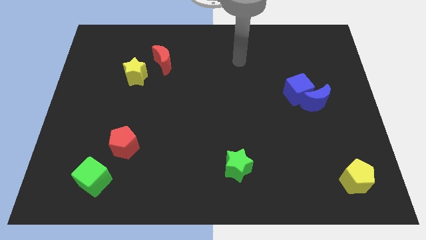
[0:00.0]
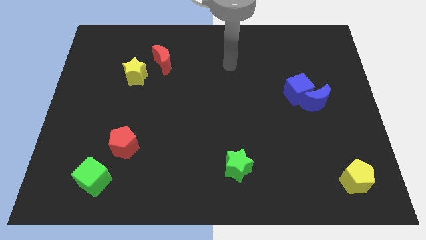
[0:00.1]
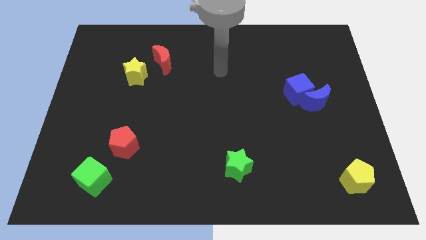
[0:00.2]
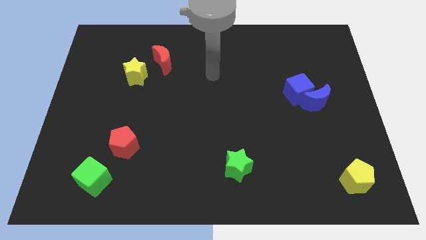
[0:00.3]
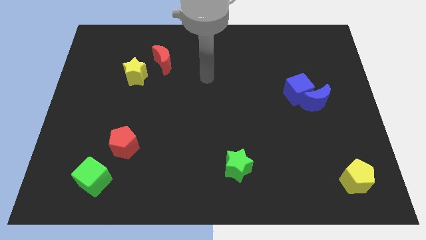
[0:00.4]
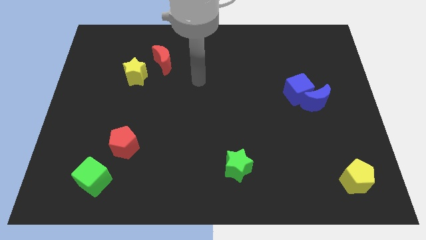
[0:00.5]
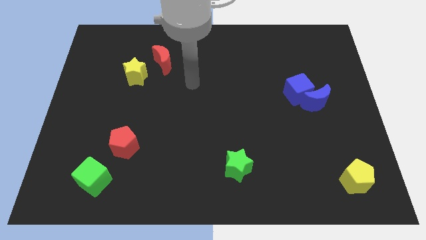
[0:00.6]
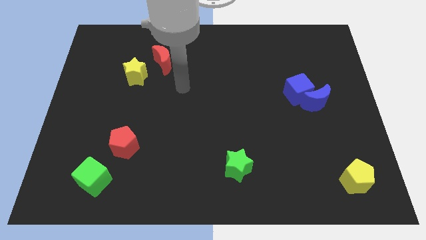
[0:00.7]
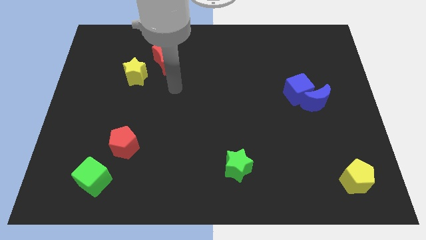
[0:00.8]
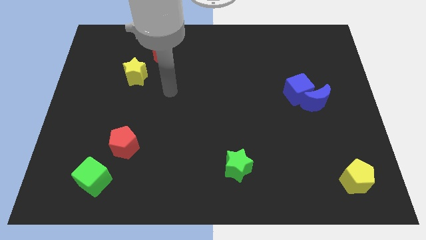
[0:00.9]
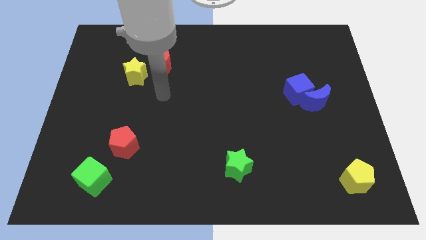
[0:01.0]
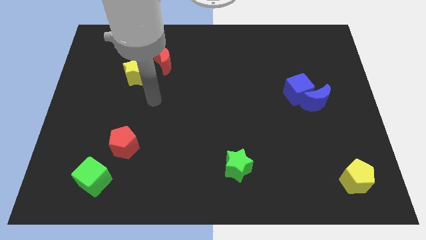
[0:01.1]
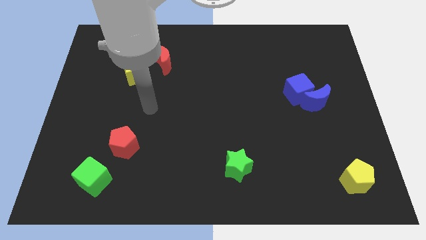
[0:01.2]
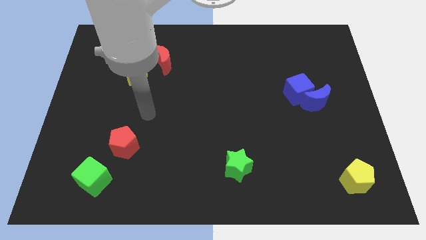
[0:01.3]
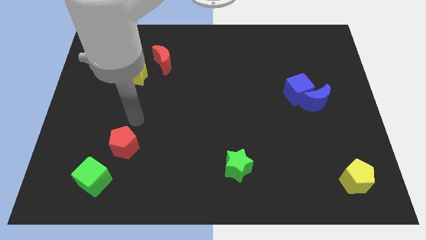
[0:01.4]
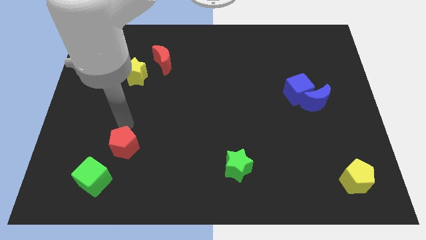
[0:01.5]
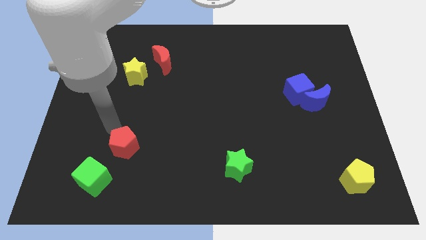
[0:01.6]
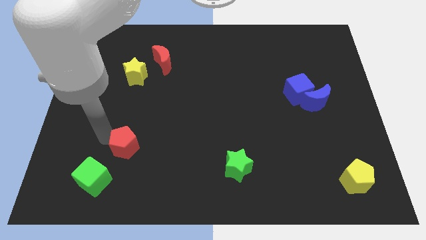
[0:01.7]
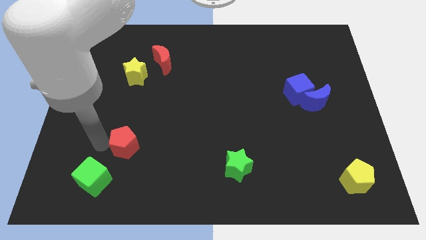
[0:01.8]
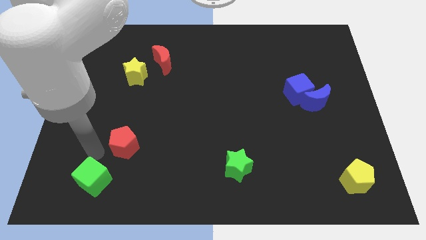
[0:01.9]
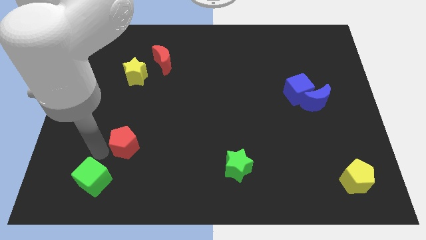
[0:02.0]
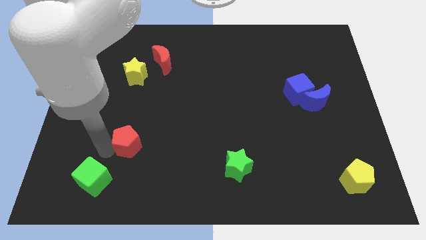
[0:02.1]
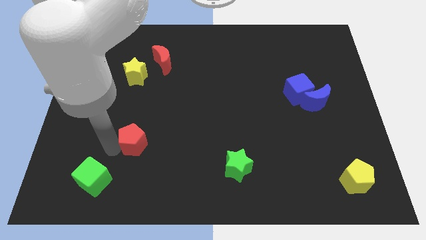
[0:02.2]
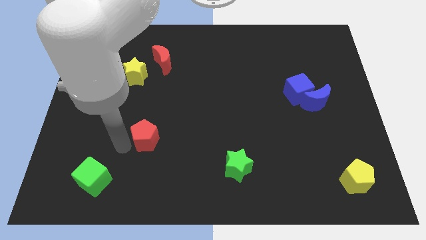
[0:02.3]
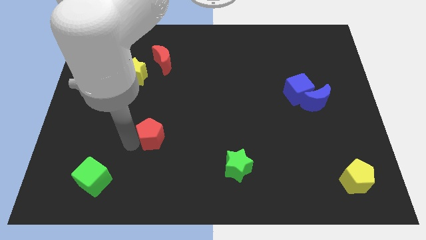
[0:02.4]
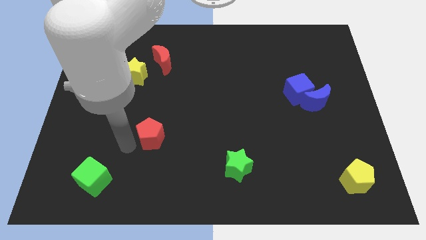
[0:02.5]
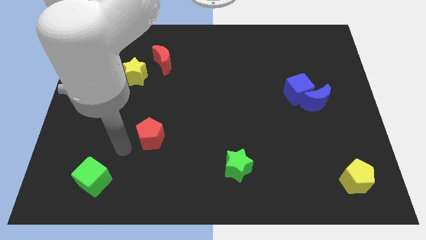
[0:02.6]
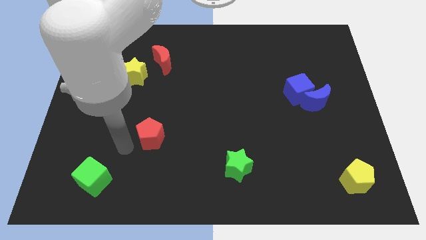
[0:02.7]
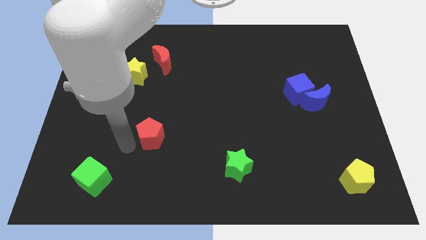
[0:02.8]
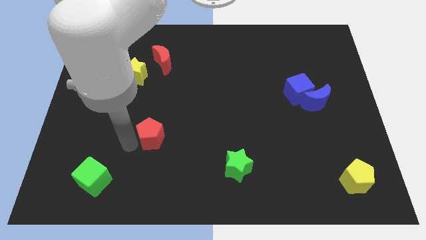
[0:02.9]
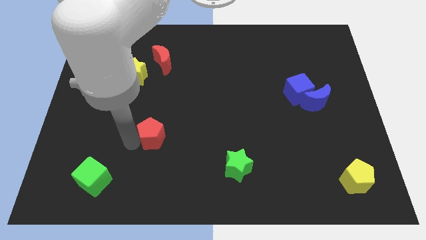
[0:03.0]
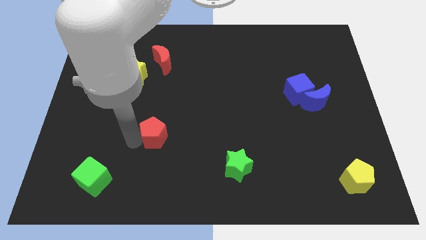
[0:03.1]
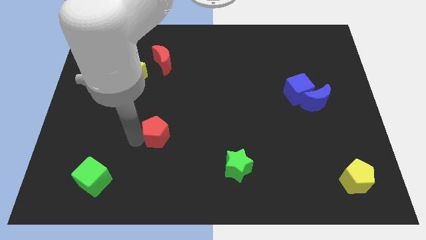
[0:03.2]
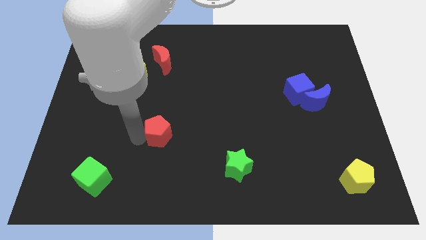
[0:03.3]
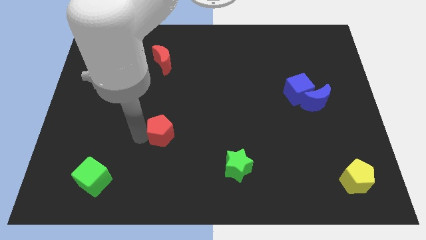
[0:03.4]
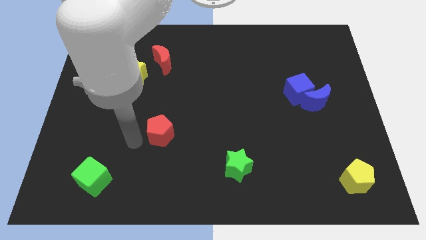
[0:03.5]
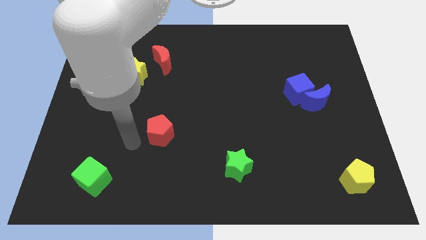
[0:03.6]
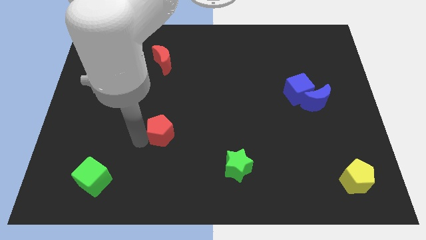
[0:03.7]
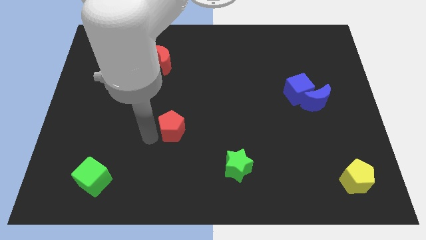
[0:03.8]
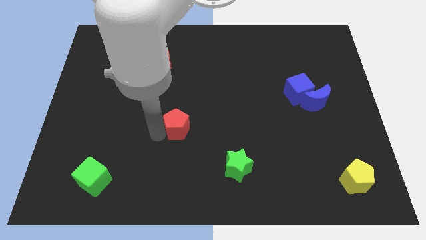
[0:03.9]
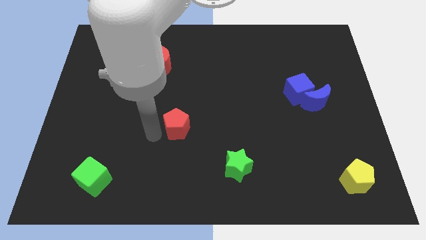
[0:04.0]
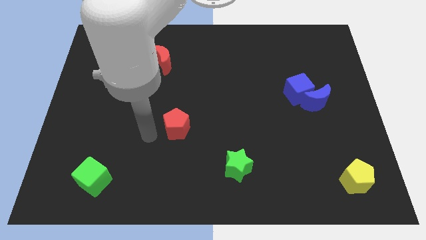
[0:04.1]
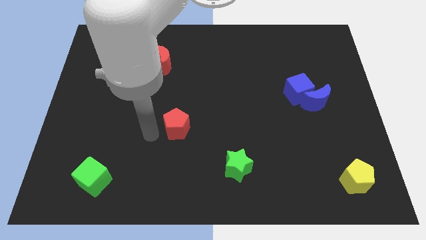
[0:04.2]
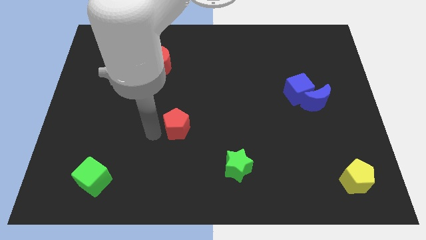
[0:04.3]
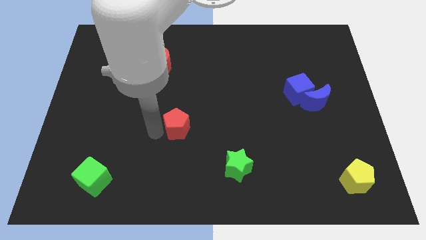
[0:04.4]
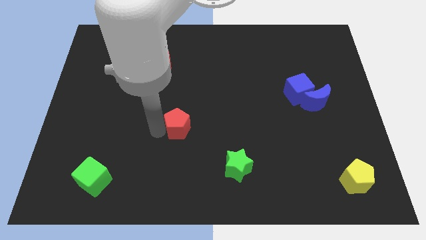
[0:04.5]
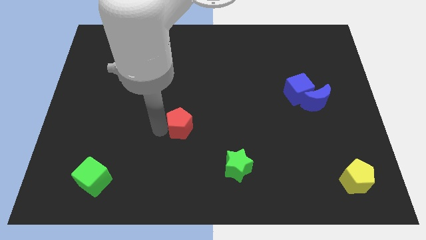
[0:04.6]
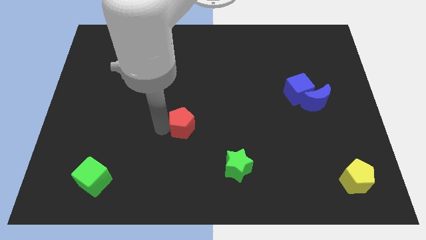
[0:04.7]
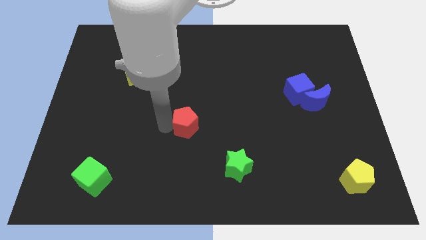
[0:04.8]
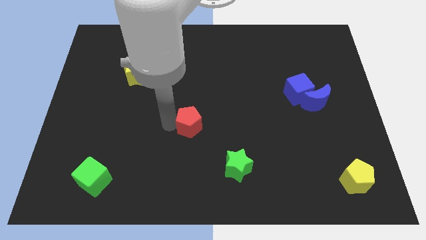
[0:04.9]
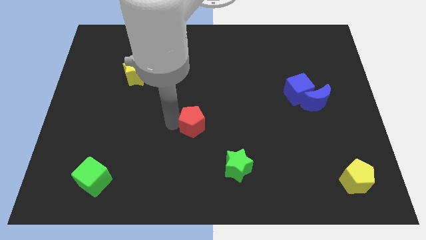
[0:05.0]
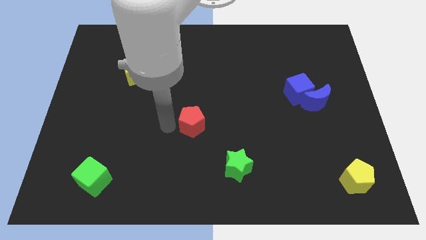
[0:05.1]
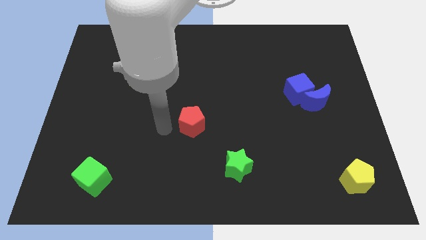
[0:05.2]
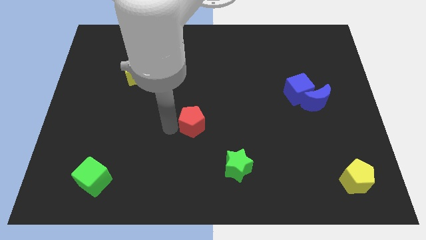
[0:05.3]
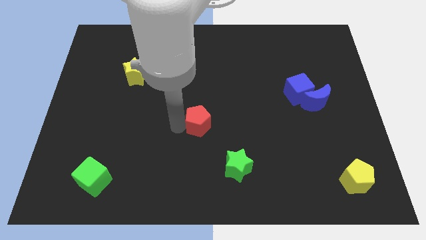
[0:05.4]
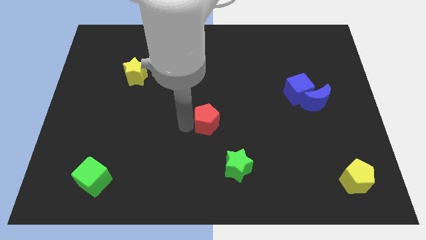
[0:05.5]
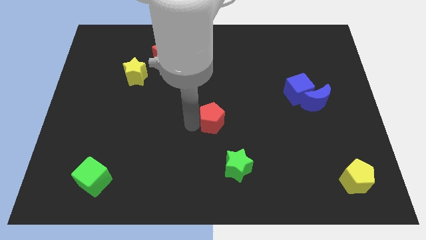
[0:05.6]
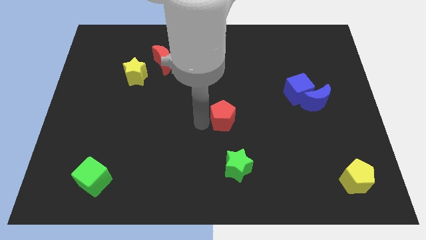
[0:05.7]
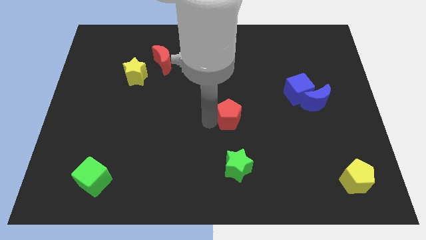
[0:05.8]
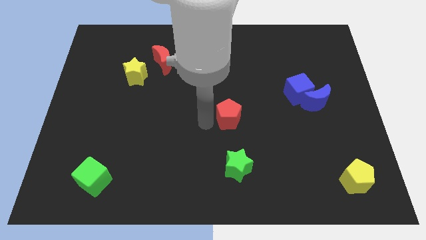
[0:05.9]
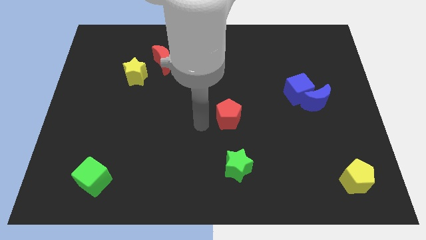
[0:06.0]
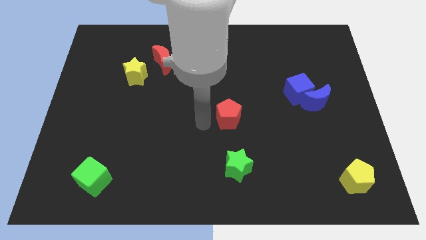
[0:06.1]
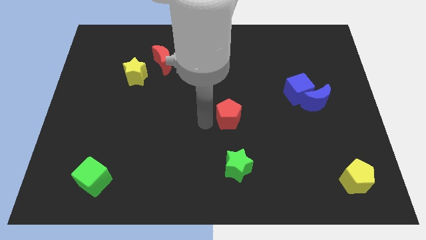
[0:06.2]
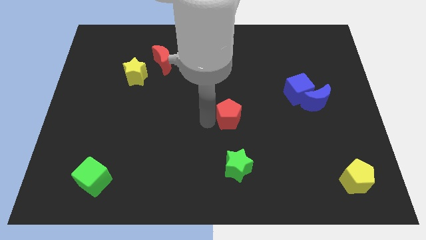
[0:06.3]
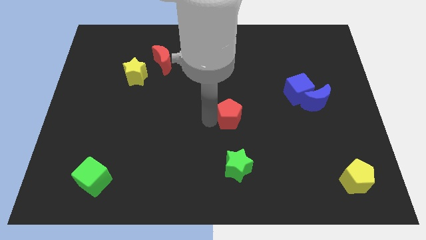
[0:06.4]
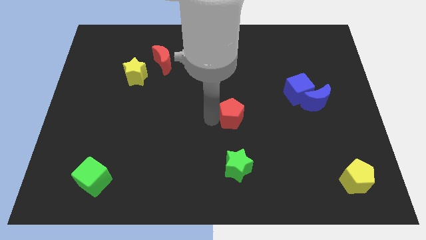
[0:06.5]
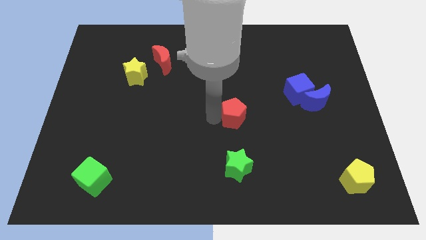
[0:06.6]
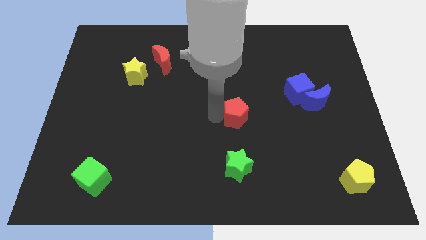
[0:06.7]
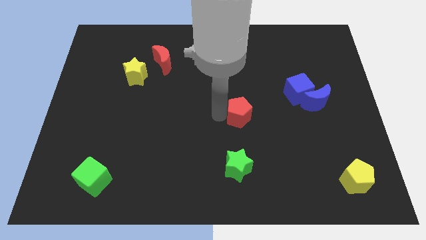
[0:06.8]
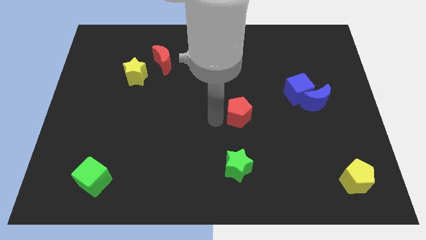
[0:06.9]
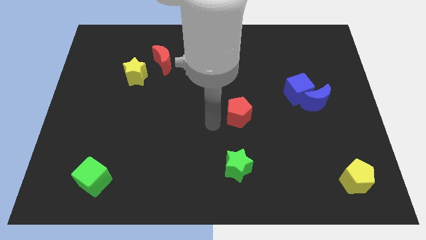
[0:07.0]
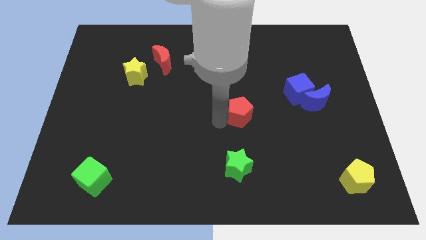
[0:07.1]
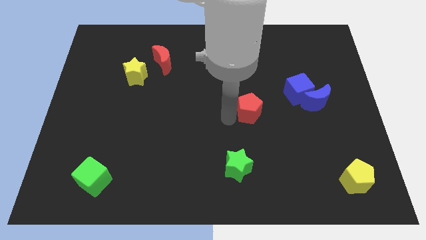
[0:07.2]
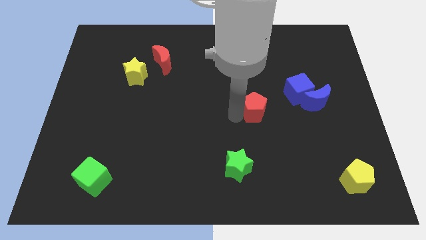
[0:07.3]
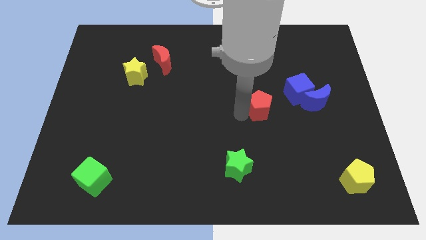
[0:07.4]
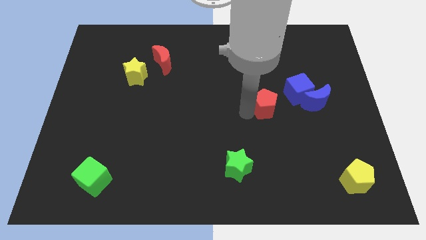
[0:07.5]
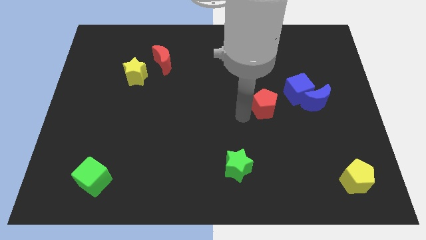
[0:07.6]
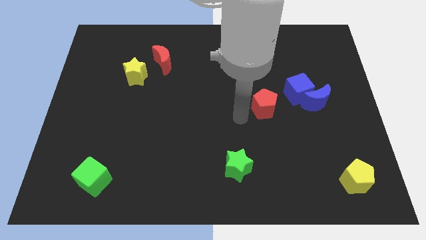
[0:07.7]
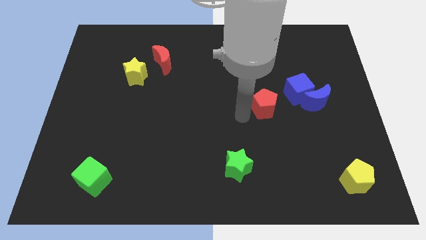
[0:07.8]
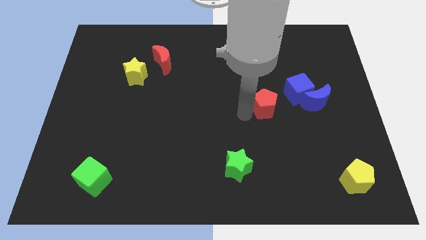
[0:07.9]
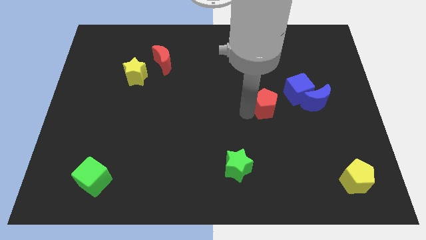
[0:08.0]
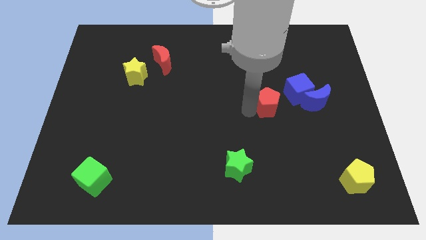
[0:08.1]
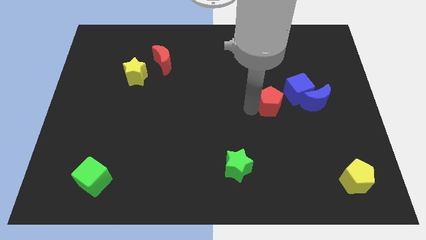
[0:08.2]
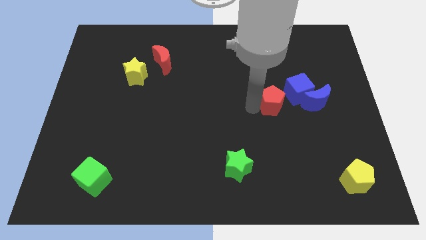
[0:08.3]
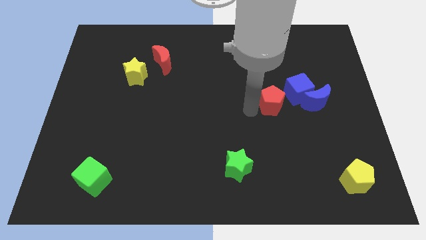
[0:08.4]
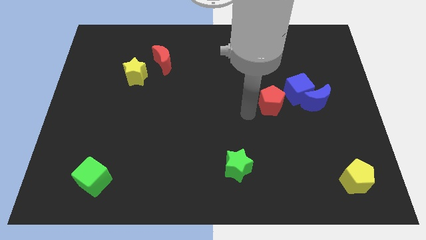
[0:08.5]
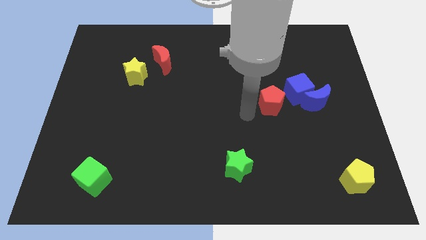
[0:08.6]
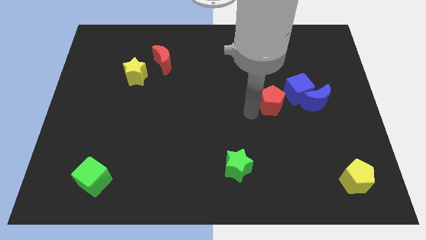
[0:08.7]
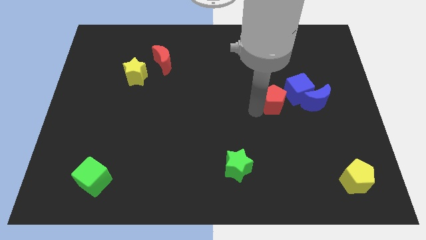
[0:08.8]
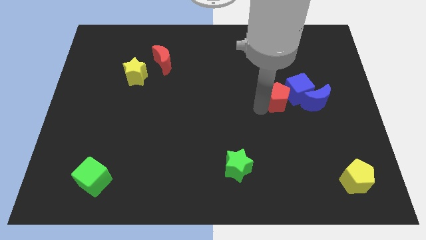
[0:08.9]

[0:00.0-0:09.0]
slide the red pentagon close to the blue cube
